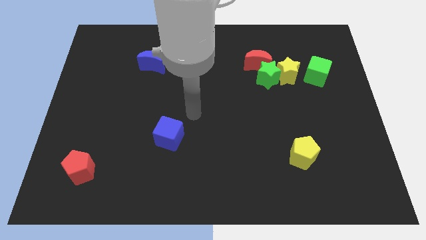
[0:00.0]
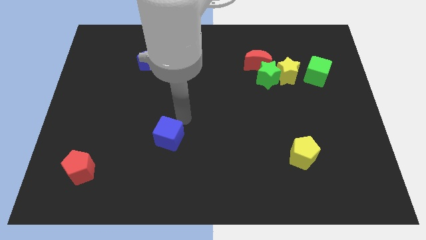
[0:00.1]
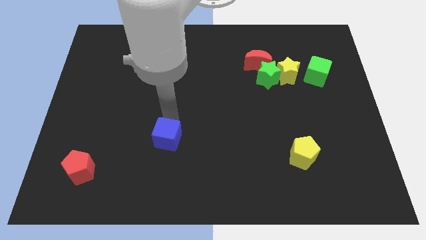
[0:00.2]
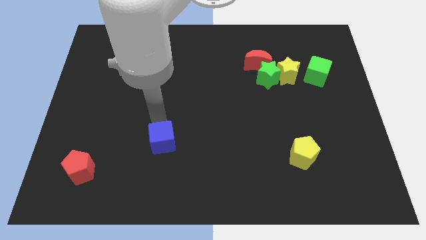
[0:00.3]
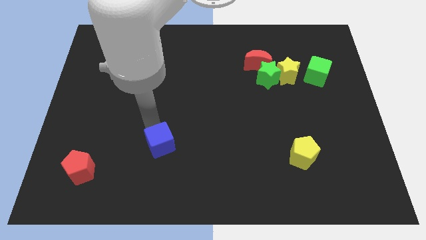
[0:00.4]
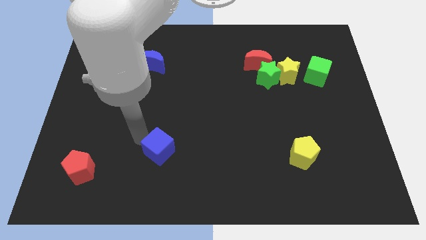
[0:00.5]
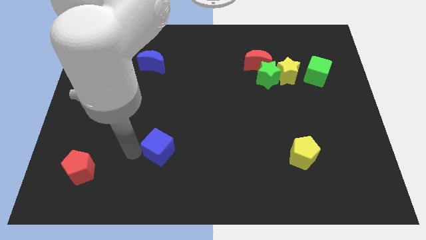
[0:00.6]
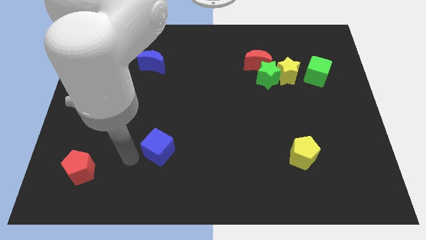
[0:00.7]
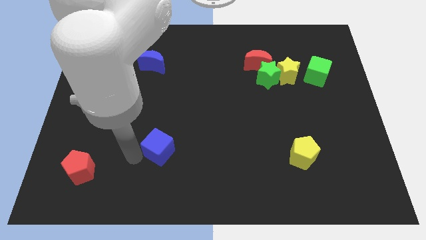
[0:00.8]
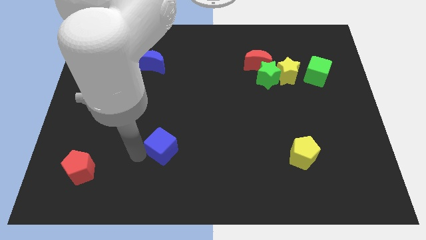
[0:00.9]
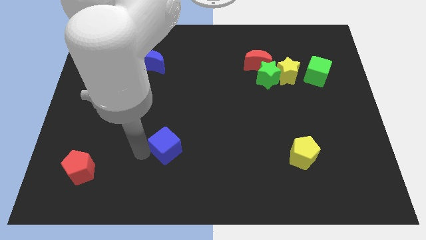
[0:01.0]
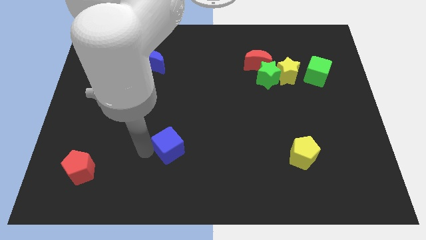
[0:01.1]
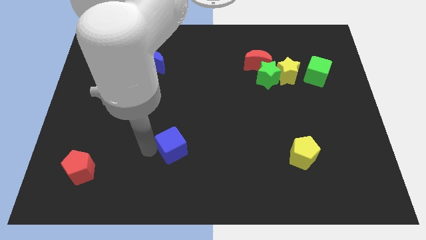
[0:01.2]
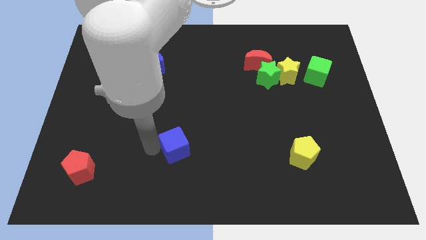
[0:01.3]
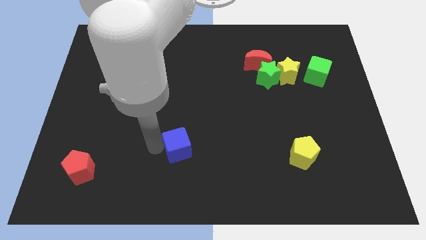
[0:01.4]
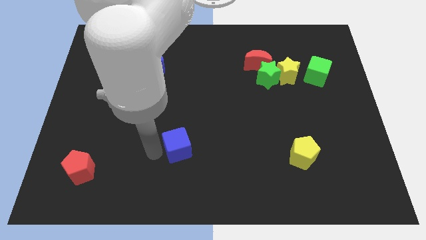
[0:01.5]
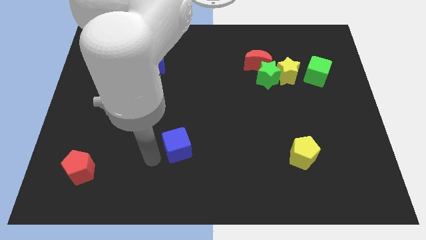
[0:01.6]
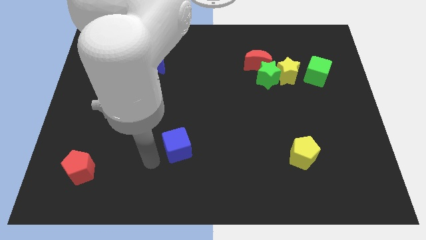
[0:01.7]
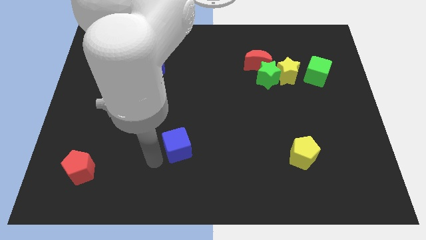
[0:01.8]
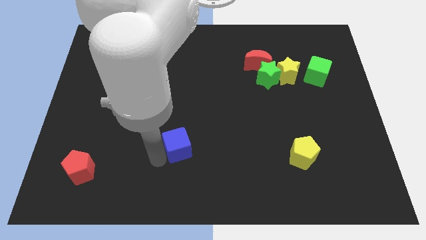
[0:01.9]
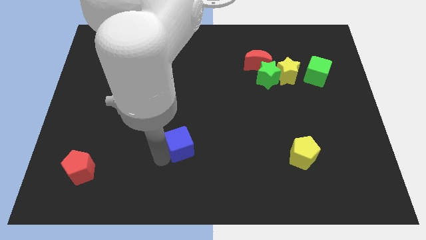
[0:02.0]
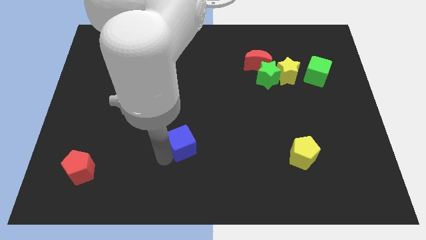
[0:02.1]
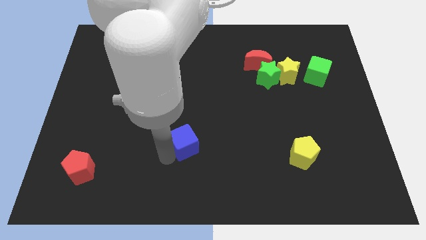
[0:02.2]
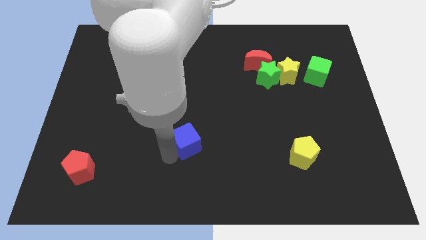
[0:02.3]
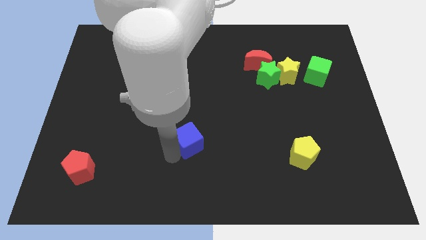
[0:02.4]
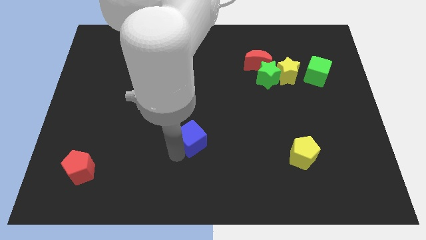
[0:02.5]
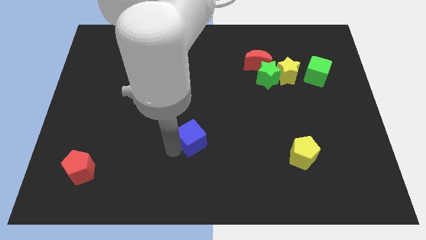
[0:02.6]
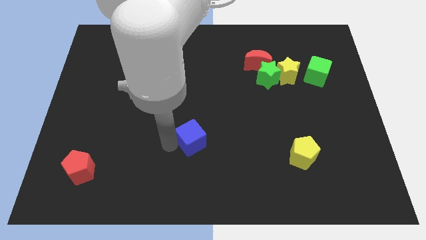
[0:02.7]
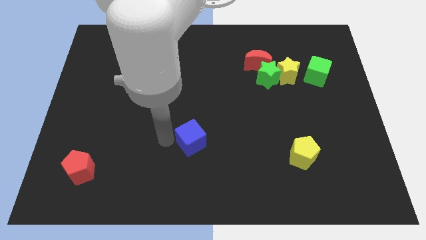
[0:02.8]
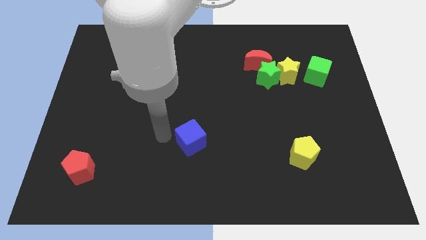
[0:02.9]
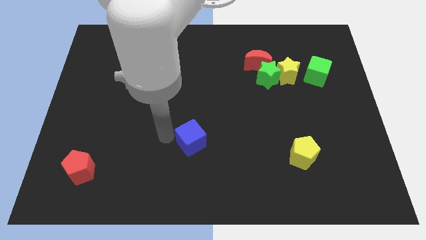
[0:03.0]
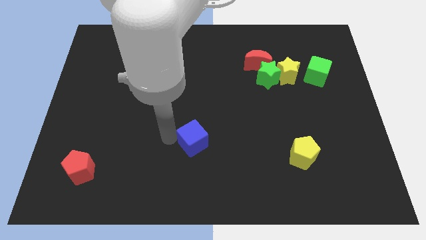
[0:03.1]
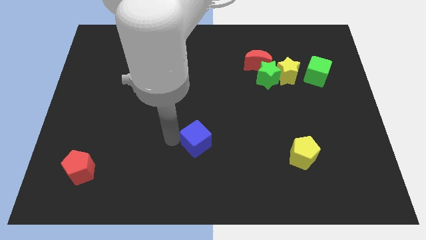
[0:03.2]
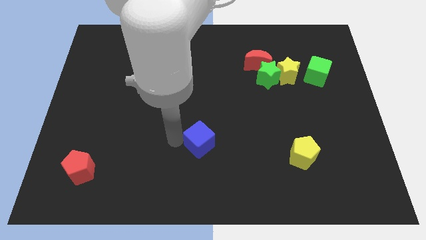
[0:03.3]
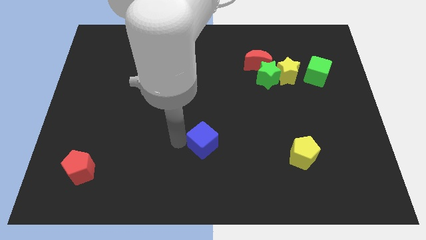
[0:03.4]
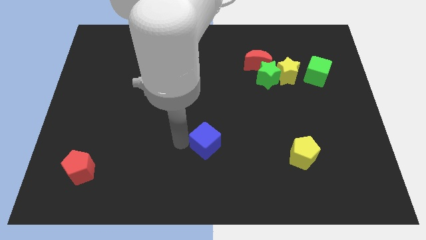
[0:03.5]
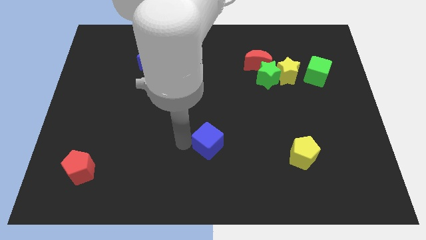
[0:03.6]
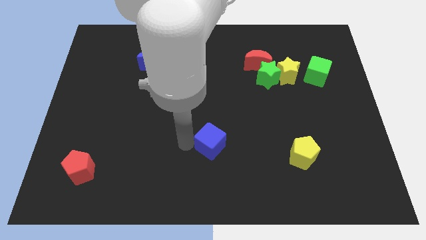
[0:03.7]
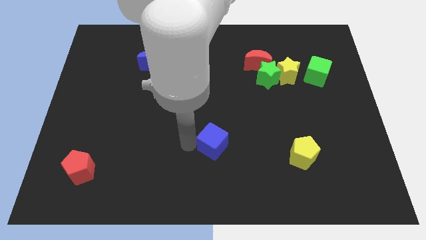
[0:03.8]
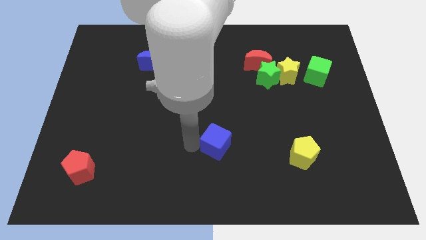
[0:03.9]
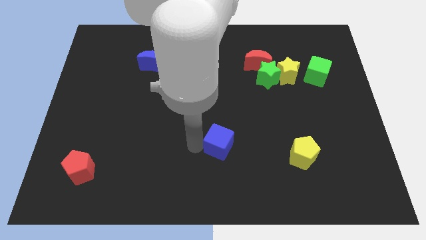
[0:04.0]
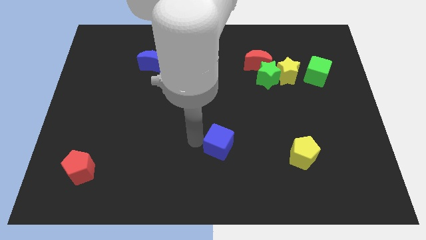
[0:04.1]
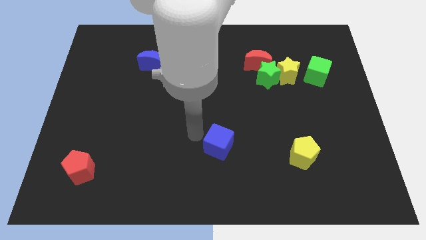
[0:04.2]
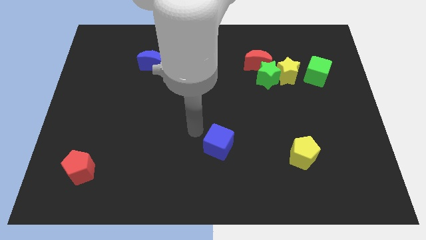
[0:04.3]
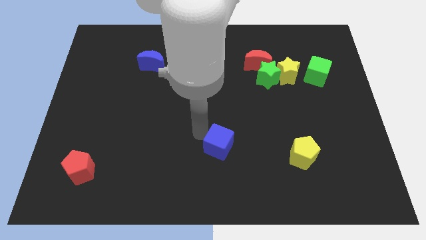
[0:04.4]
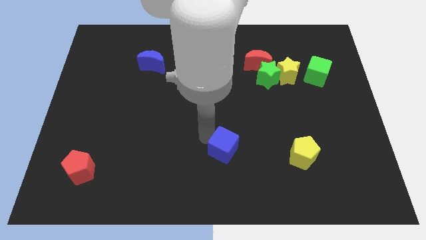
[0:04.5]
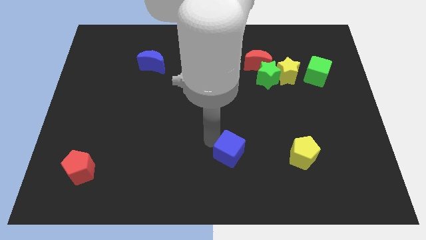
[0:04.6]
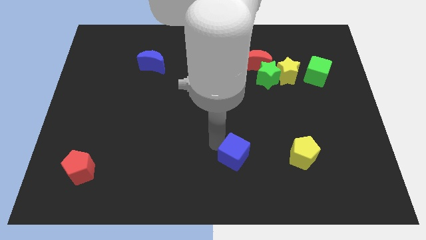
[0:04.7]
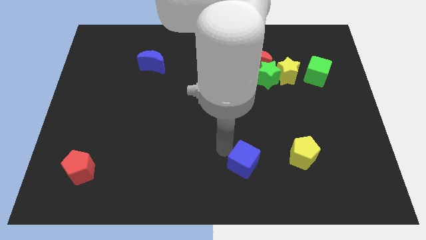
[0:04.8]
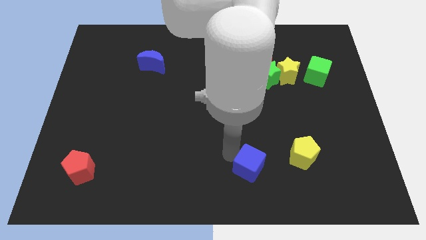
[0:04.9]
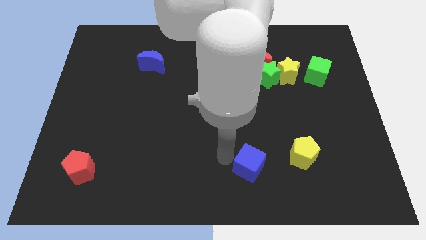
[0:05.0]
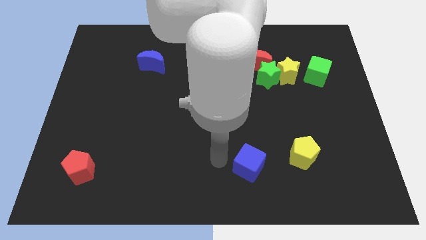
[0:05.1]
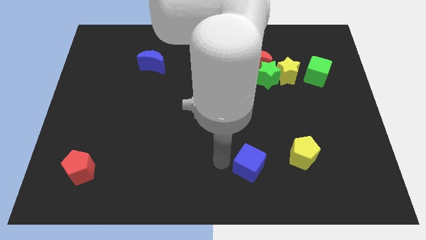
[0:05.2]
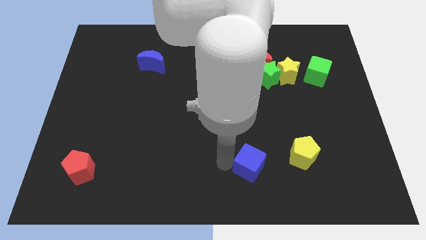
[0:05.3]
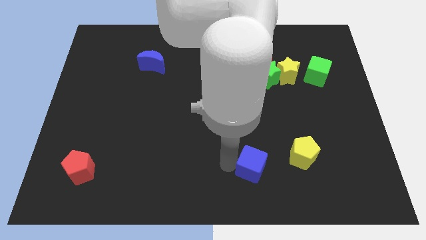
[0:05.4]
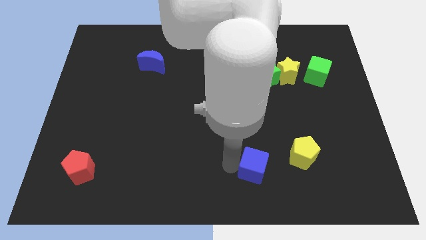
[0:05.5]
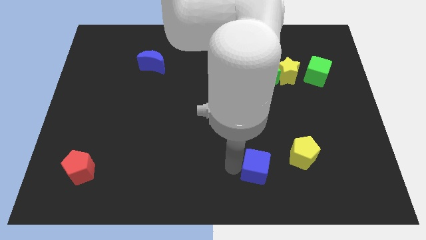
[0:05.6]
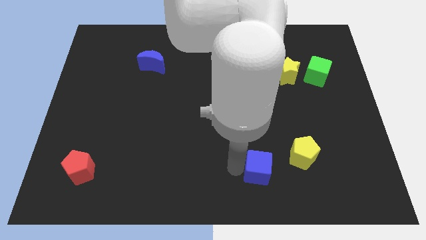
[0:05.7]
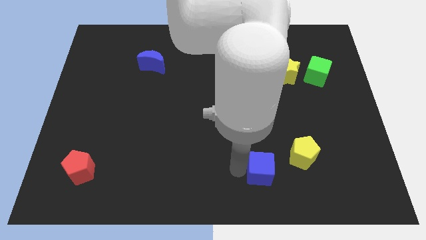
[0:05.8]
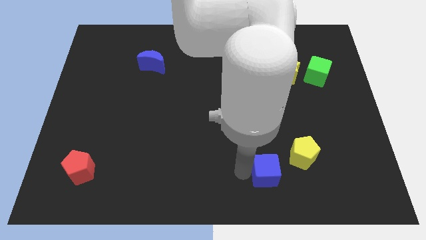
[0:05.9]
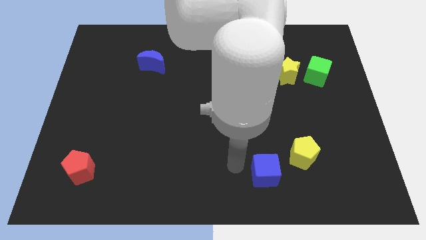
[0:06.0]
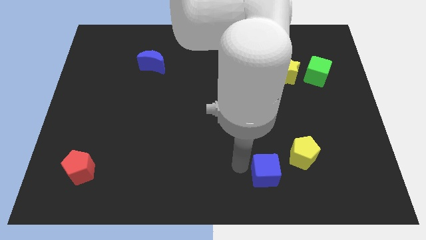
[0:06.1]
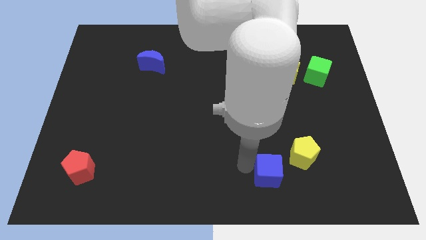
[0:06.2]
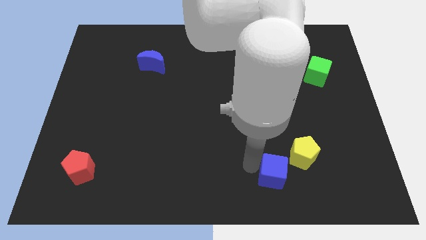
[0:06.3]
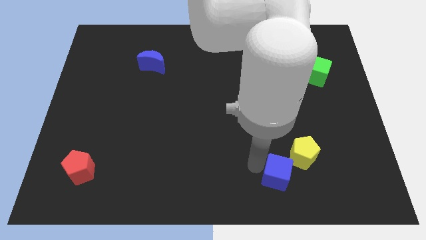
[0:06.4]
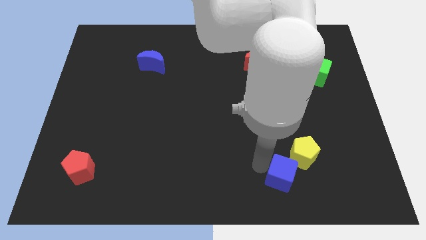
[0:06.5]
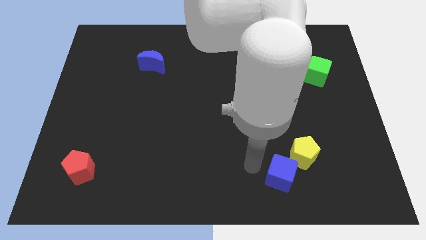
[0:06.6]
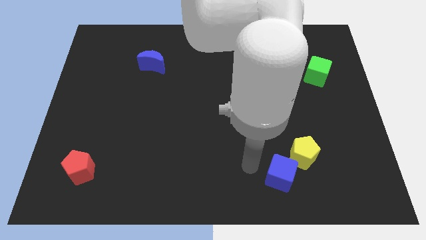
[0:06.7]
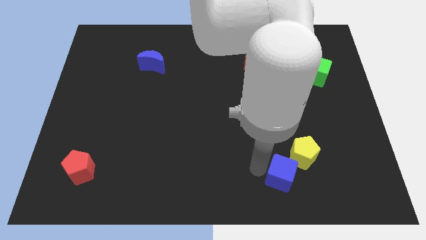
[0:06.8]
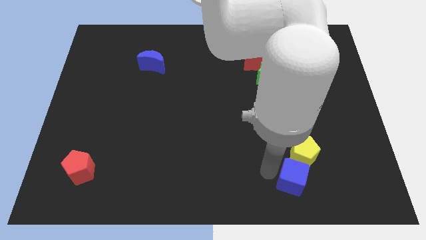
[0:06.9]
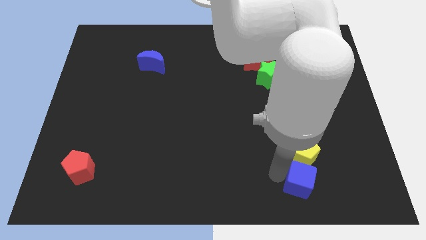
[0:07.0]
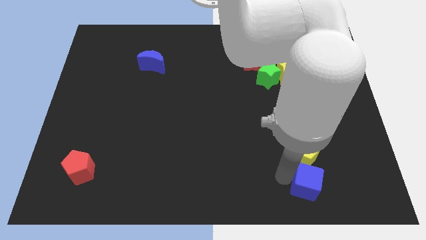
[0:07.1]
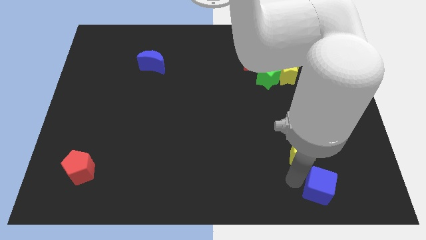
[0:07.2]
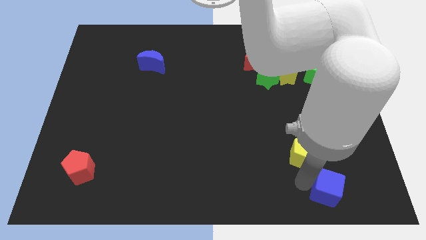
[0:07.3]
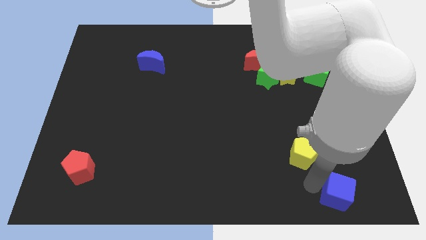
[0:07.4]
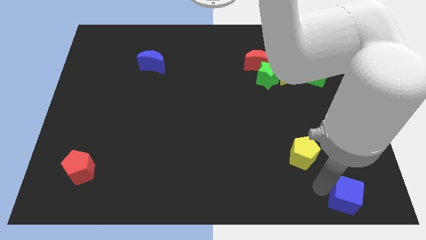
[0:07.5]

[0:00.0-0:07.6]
slide the blue cube to the bottom right of the board
